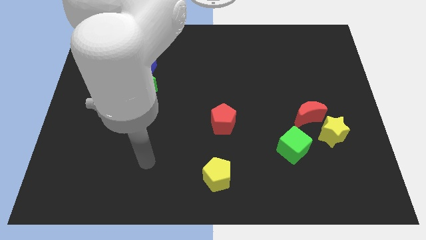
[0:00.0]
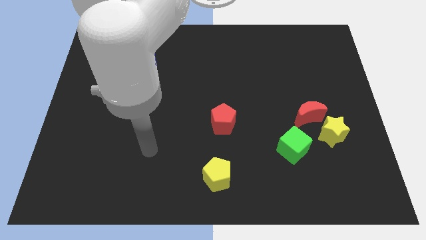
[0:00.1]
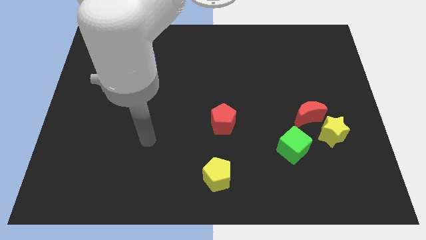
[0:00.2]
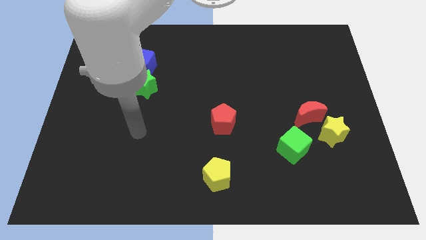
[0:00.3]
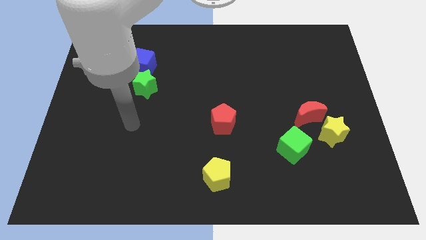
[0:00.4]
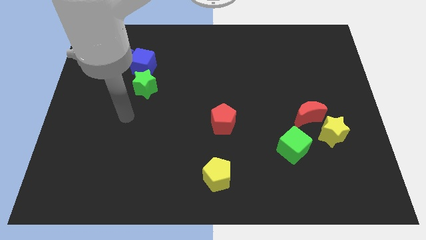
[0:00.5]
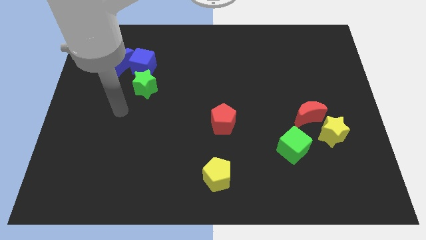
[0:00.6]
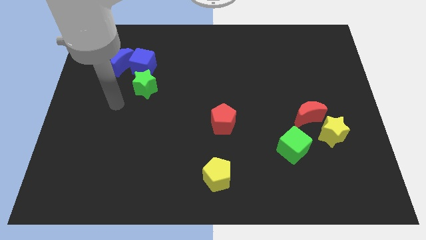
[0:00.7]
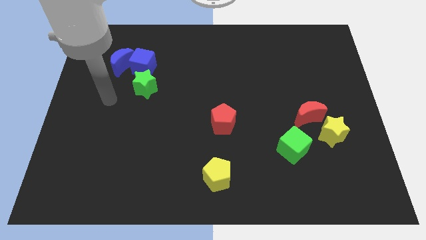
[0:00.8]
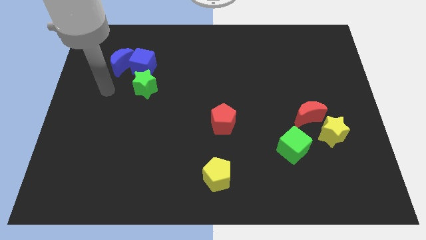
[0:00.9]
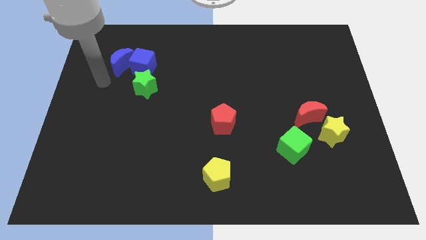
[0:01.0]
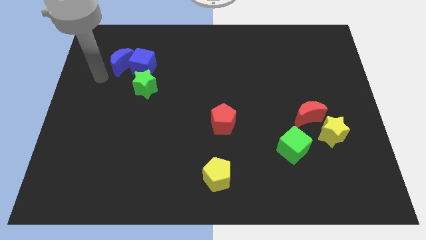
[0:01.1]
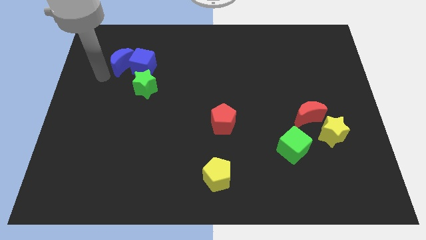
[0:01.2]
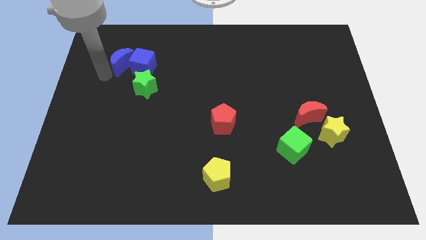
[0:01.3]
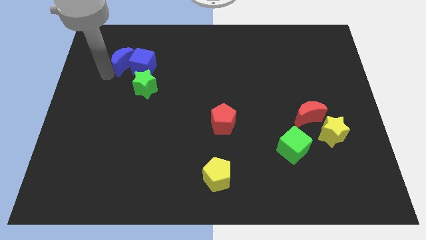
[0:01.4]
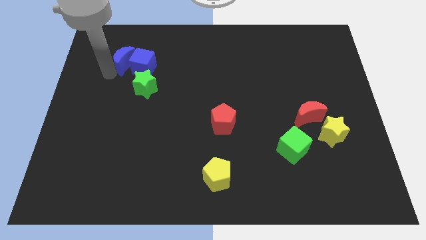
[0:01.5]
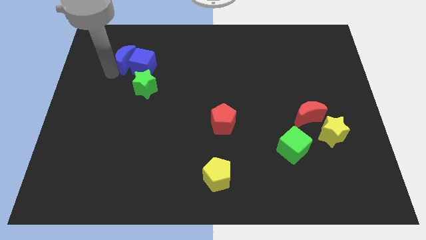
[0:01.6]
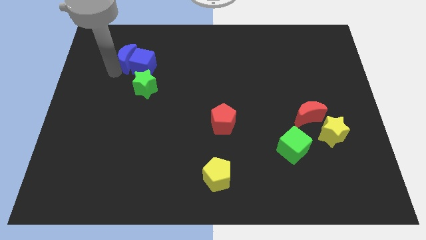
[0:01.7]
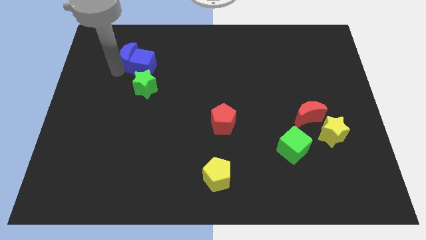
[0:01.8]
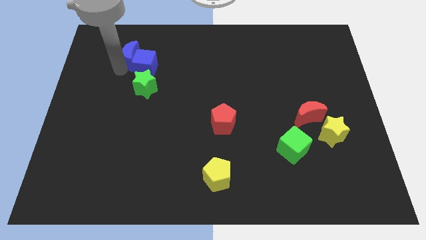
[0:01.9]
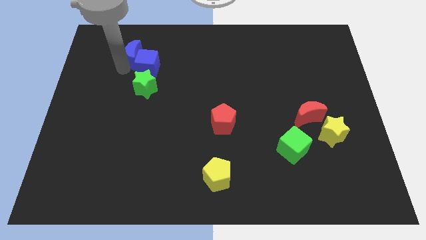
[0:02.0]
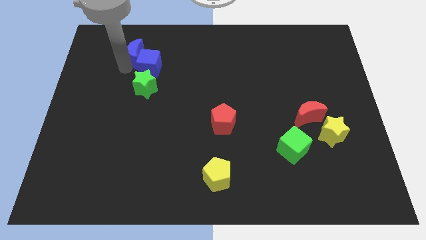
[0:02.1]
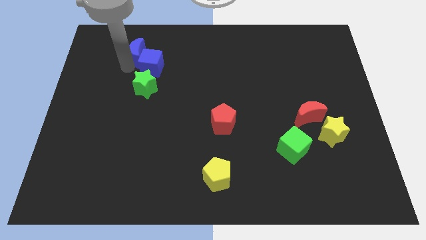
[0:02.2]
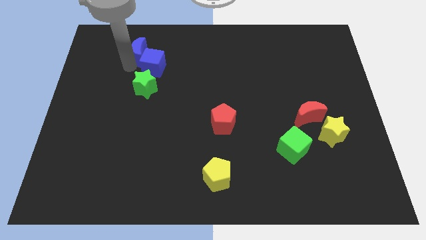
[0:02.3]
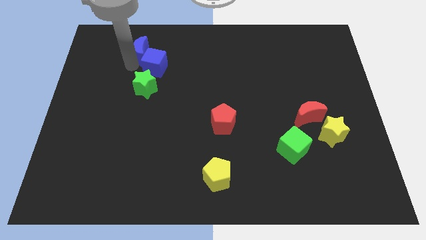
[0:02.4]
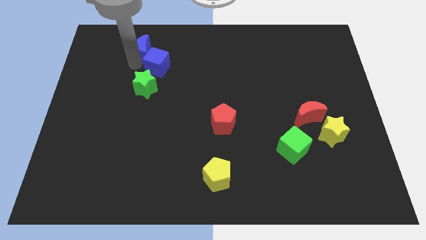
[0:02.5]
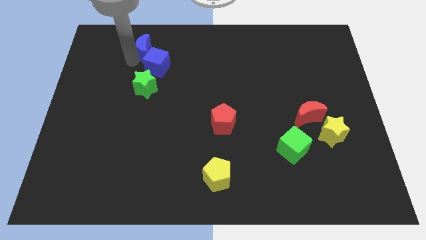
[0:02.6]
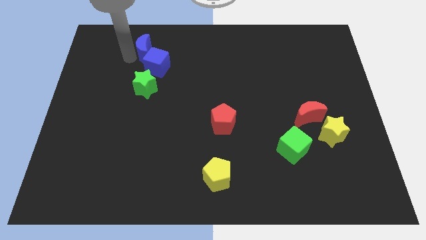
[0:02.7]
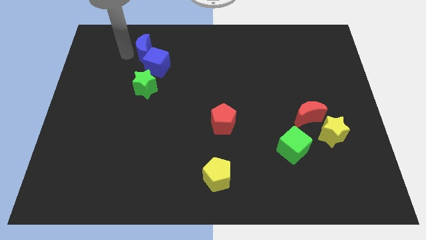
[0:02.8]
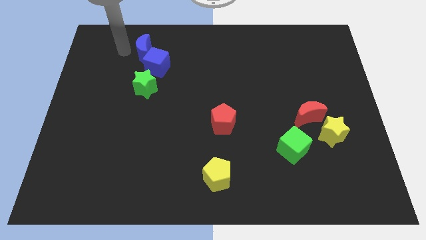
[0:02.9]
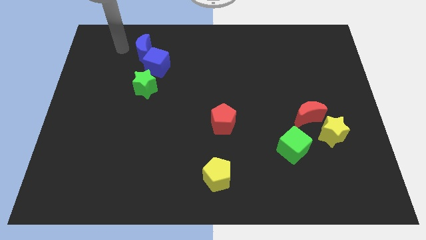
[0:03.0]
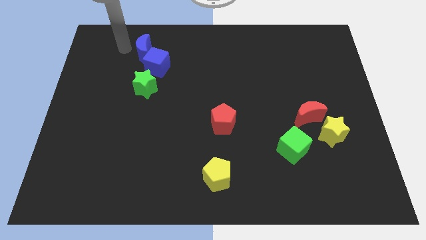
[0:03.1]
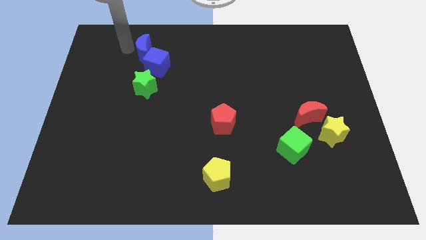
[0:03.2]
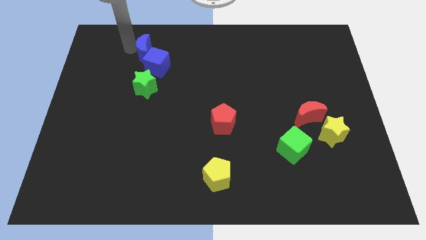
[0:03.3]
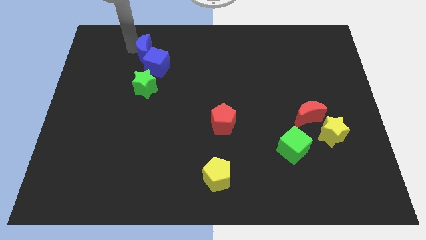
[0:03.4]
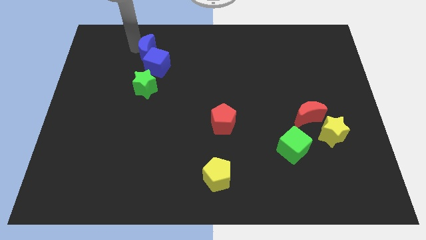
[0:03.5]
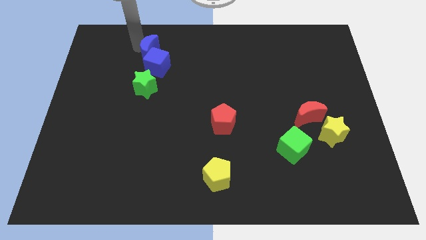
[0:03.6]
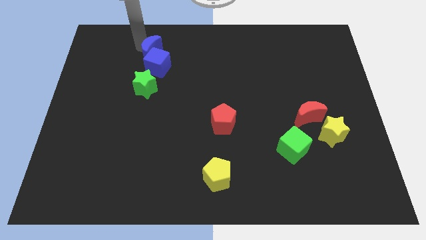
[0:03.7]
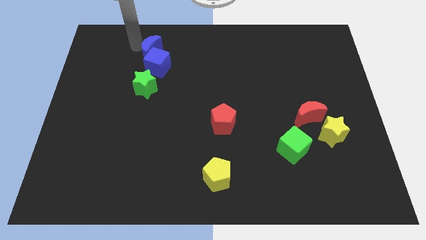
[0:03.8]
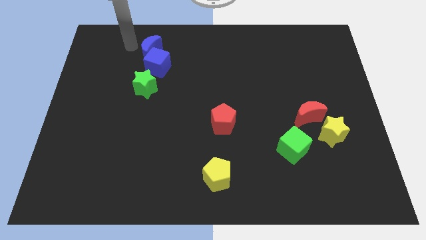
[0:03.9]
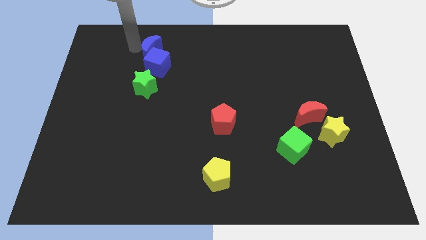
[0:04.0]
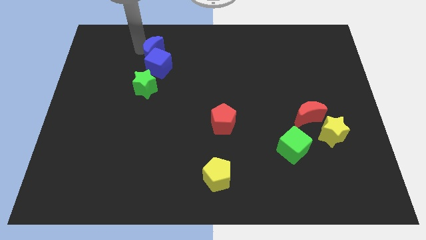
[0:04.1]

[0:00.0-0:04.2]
slightly push the blue moon right

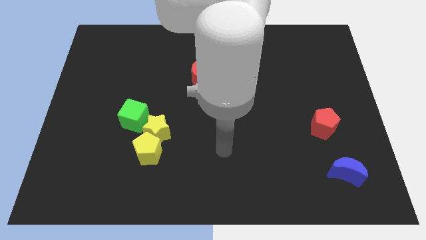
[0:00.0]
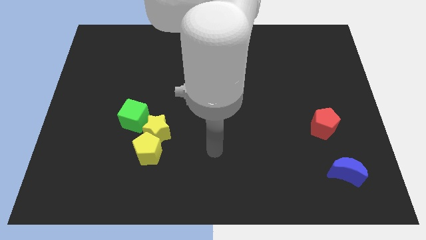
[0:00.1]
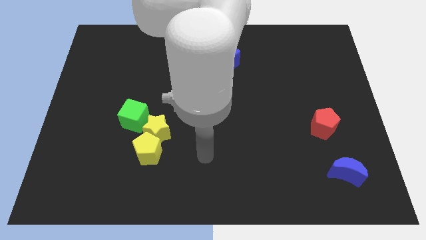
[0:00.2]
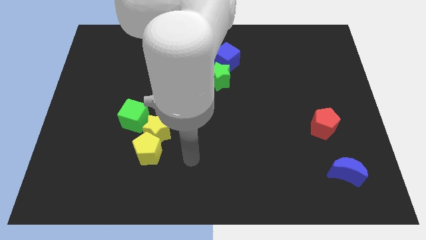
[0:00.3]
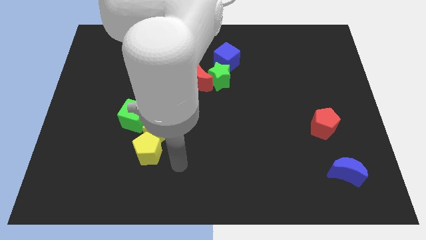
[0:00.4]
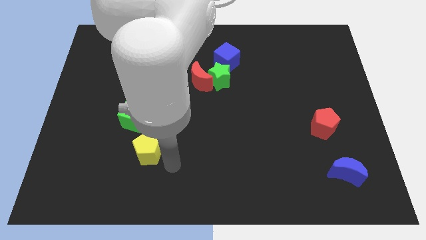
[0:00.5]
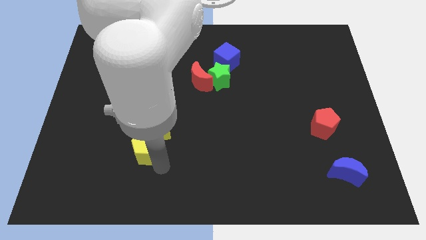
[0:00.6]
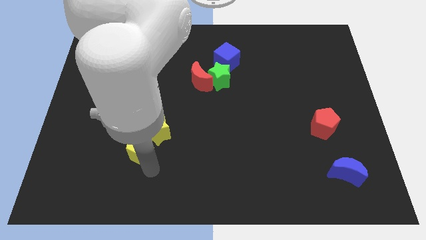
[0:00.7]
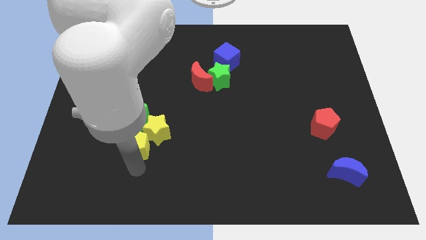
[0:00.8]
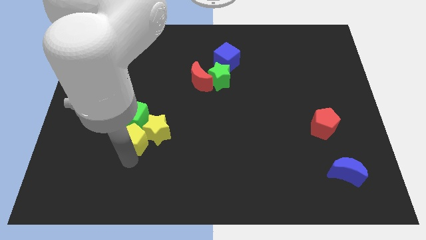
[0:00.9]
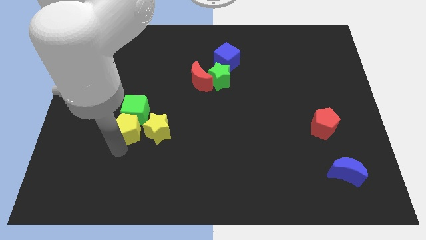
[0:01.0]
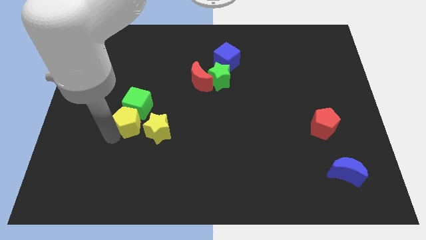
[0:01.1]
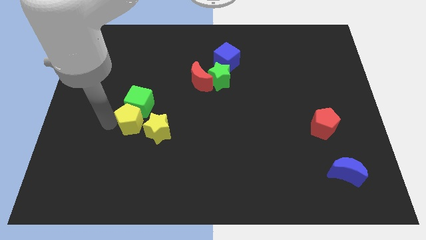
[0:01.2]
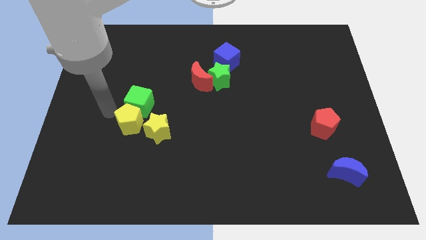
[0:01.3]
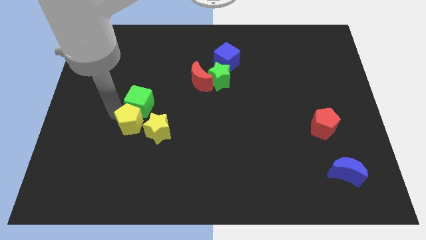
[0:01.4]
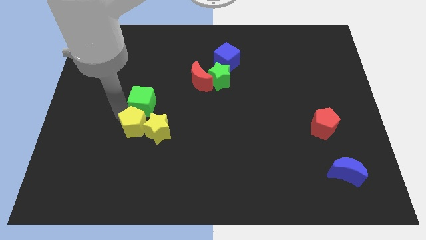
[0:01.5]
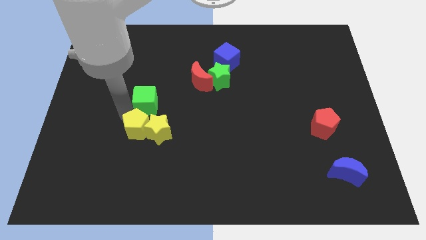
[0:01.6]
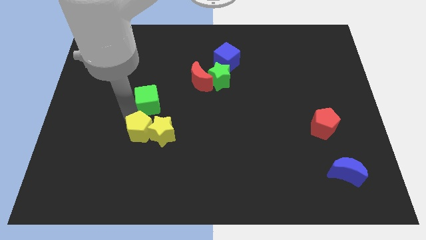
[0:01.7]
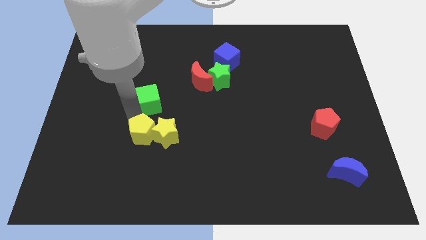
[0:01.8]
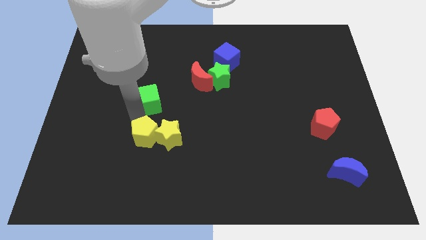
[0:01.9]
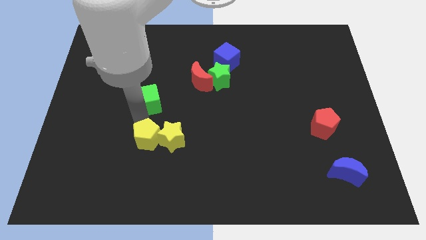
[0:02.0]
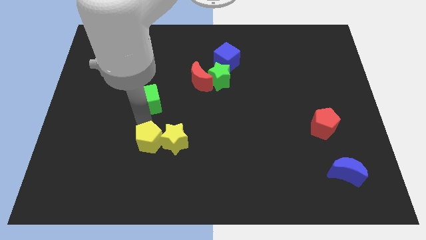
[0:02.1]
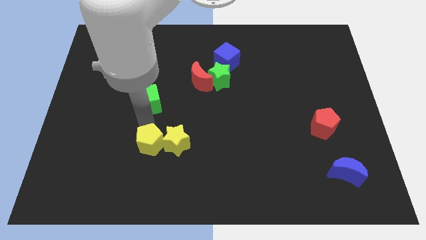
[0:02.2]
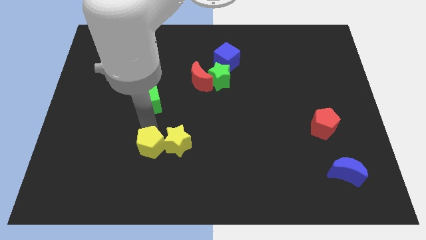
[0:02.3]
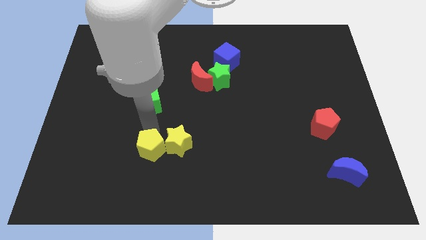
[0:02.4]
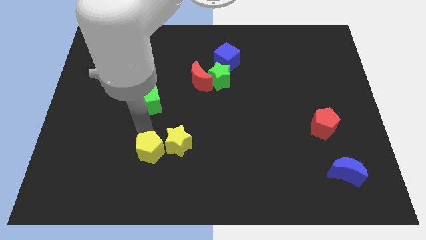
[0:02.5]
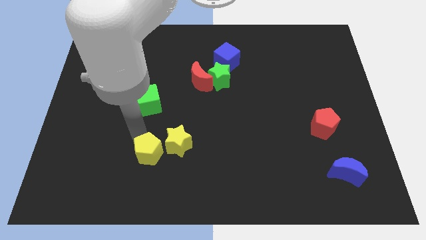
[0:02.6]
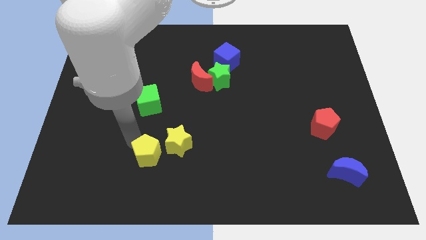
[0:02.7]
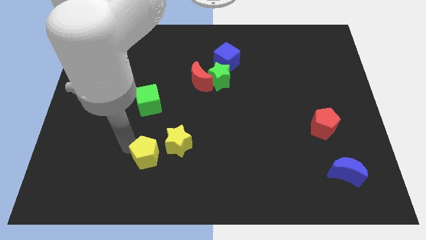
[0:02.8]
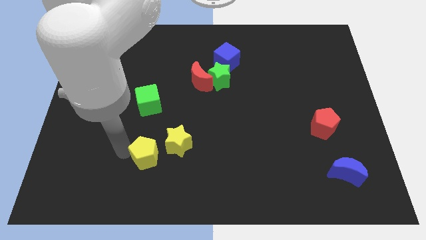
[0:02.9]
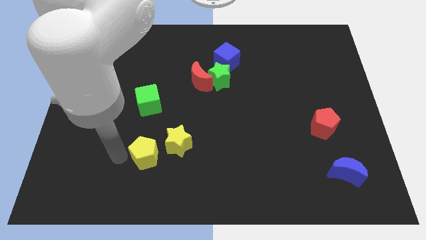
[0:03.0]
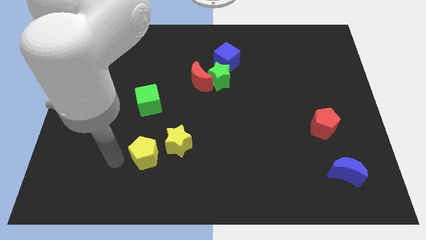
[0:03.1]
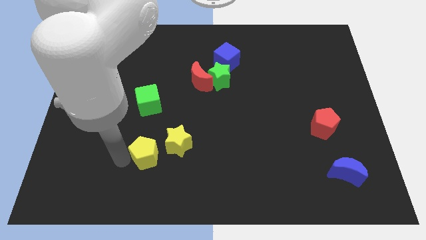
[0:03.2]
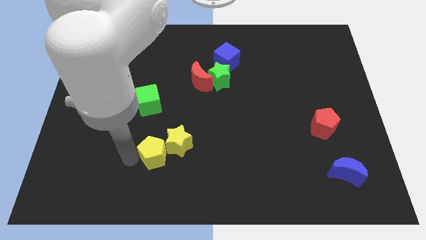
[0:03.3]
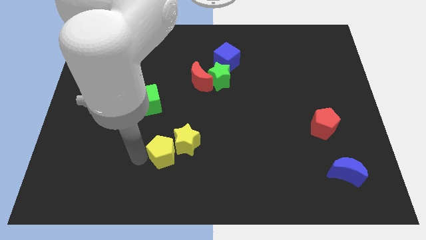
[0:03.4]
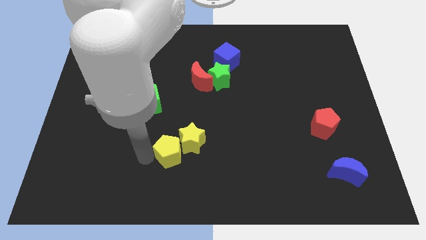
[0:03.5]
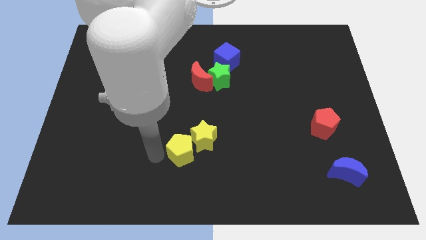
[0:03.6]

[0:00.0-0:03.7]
push the yellow pentagon somewhat to the right

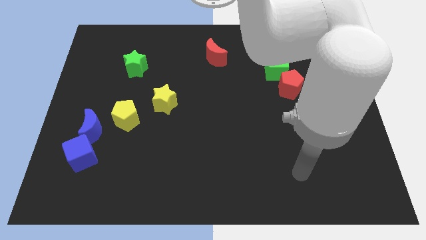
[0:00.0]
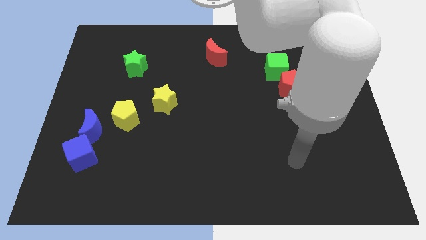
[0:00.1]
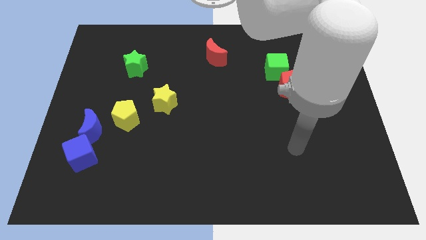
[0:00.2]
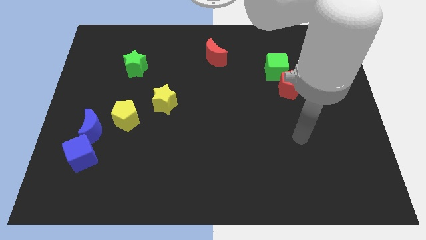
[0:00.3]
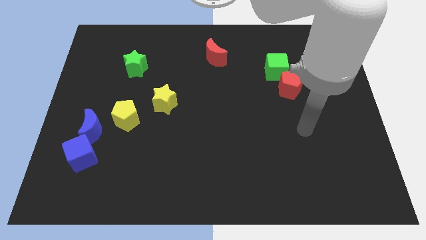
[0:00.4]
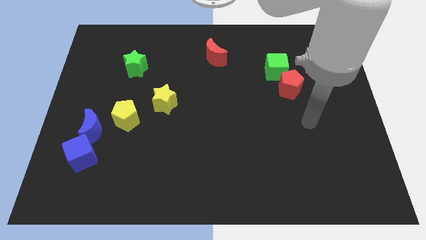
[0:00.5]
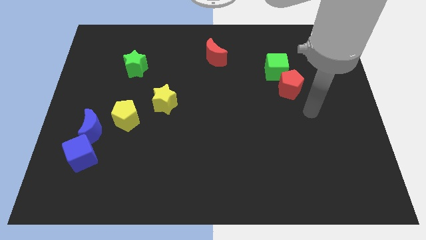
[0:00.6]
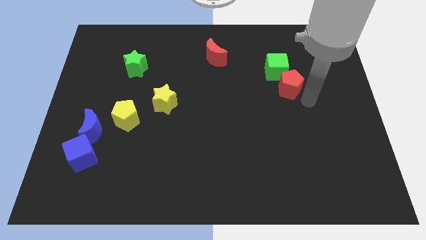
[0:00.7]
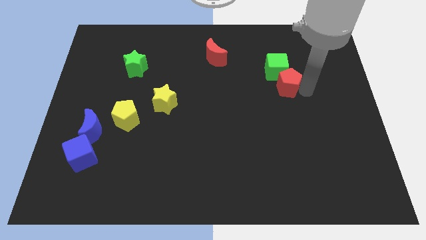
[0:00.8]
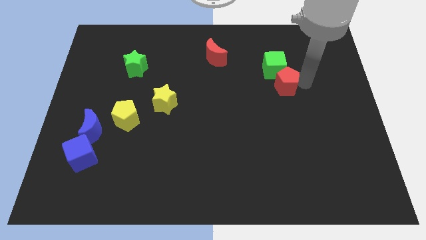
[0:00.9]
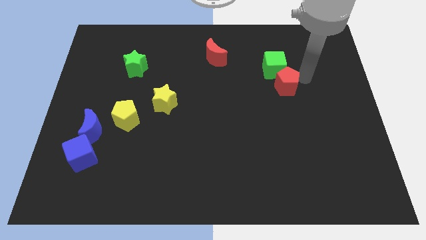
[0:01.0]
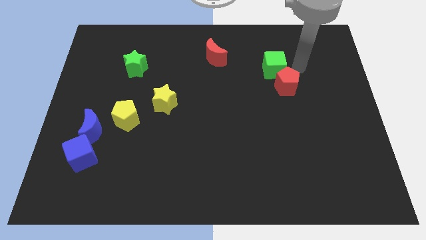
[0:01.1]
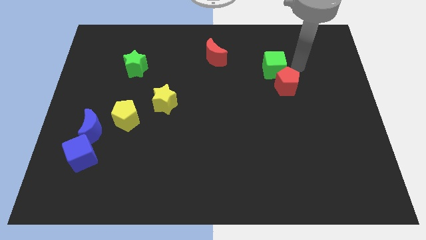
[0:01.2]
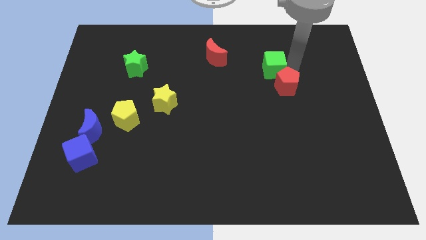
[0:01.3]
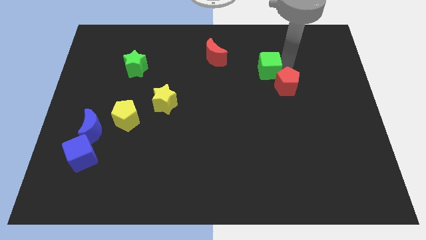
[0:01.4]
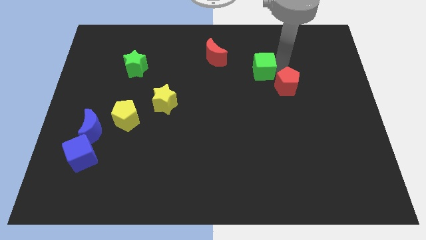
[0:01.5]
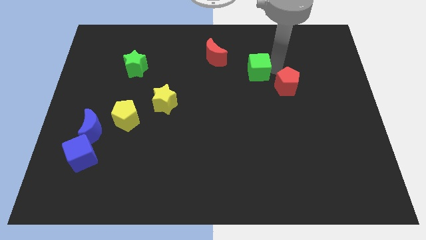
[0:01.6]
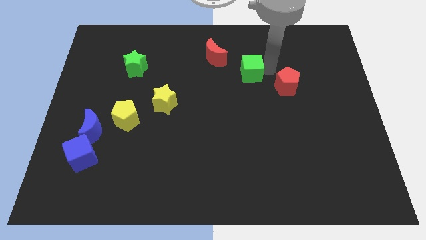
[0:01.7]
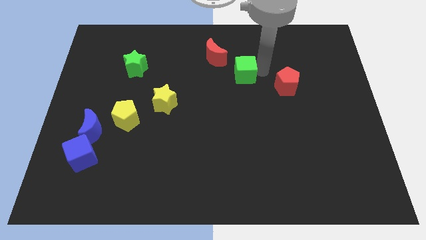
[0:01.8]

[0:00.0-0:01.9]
slightly slide the green cube to the left
